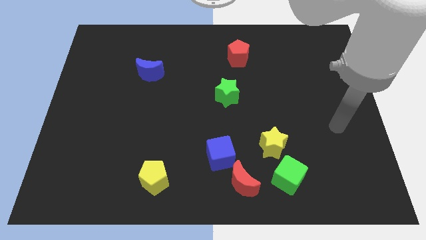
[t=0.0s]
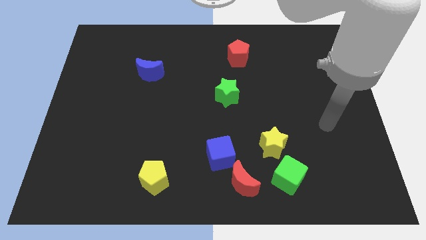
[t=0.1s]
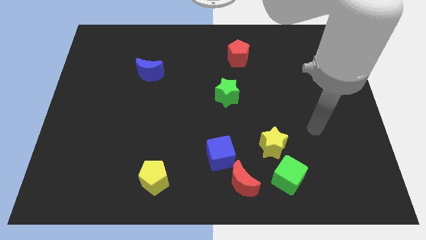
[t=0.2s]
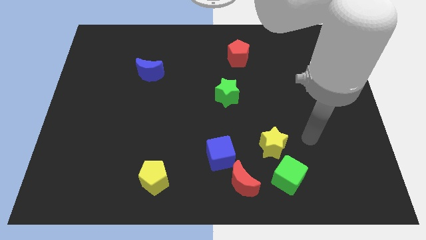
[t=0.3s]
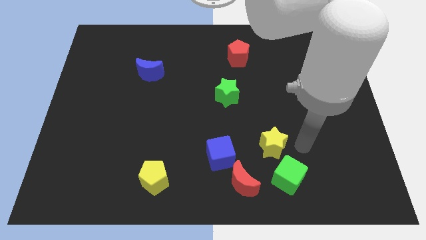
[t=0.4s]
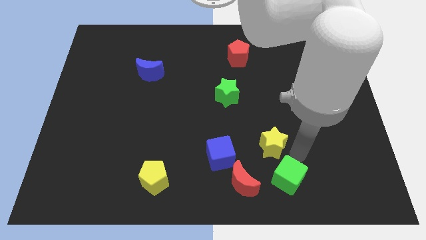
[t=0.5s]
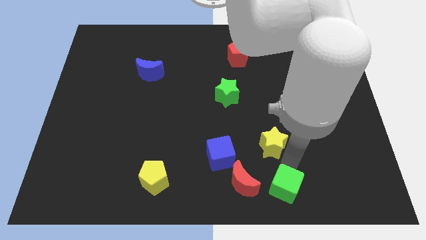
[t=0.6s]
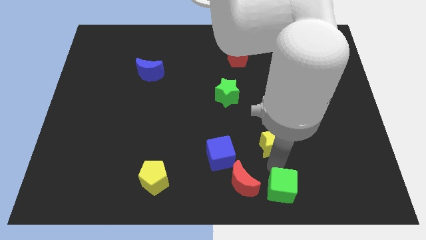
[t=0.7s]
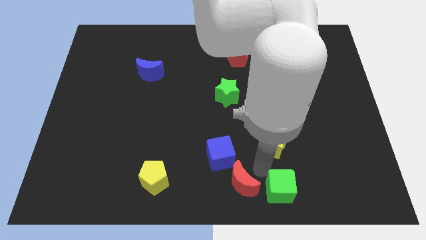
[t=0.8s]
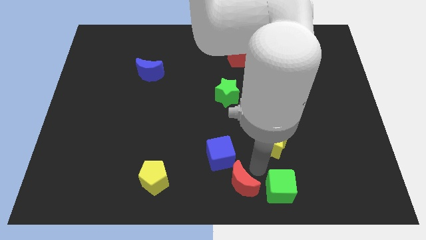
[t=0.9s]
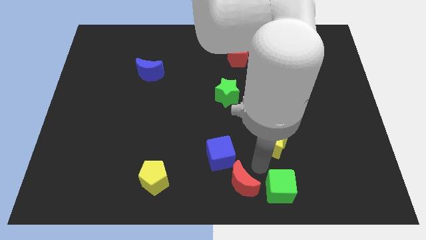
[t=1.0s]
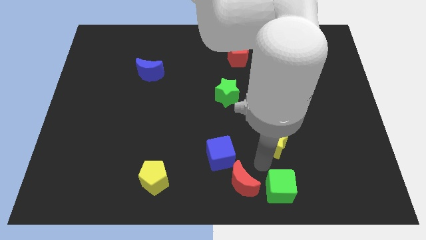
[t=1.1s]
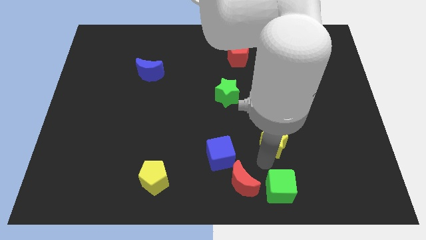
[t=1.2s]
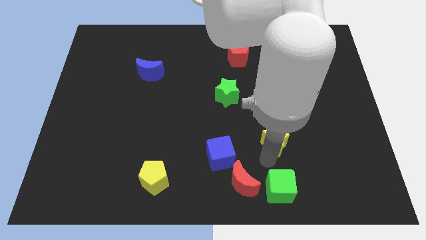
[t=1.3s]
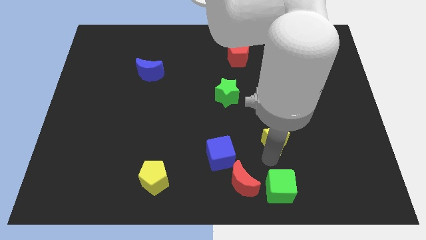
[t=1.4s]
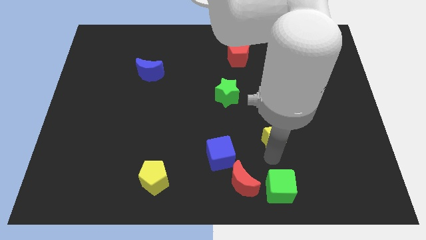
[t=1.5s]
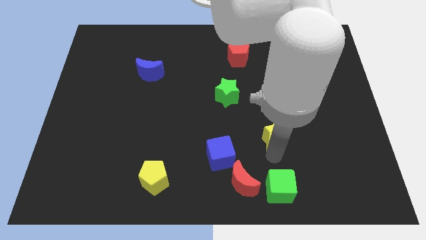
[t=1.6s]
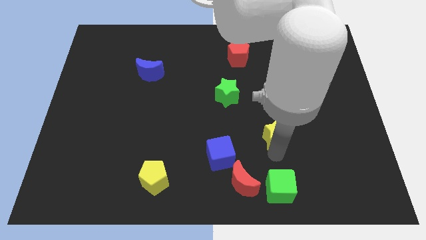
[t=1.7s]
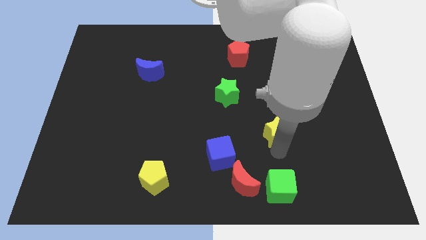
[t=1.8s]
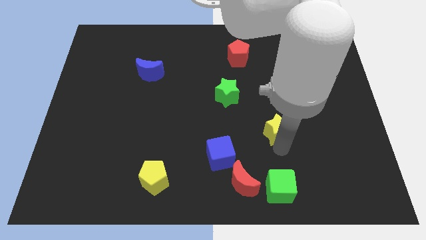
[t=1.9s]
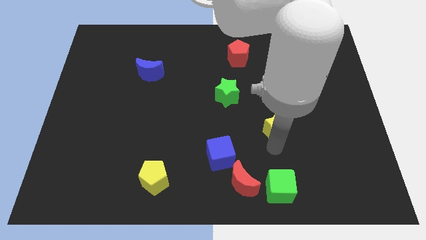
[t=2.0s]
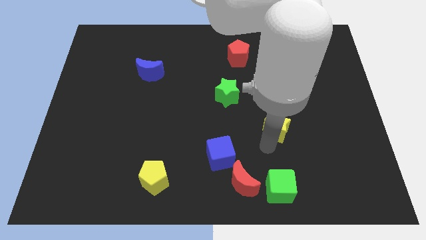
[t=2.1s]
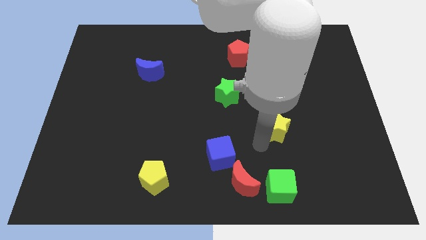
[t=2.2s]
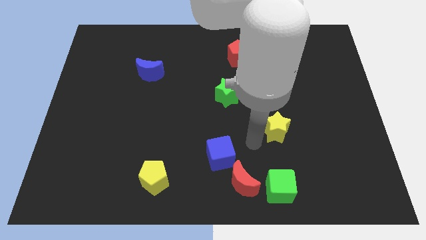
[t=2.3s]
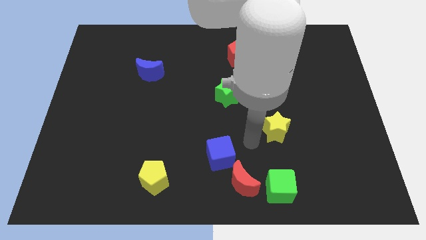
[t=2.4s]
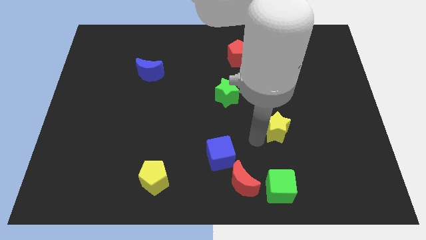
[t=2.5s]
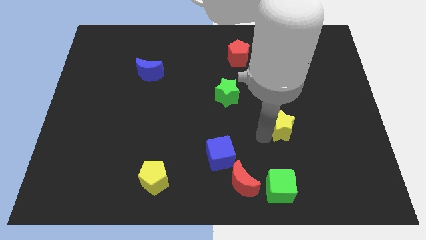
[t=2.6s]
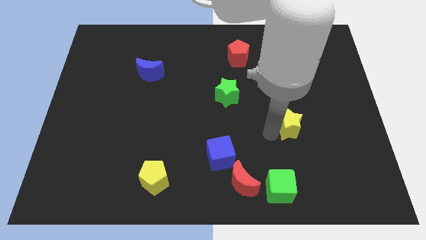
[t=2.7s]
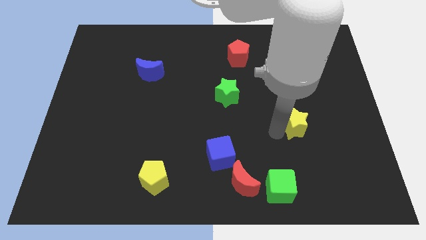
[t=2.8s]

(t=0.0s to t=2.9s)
move the yellow star a little bit upwards and right

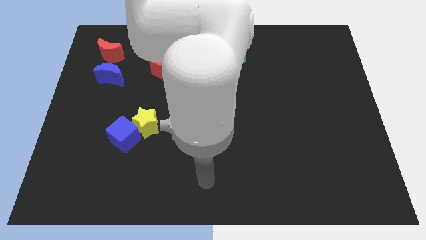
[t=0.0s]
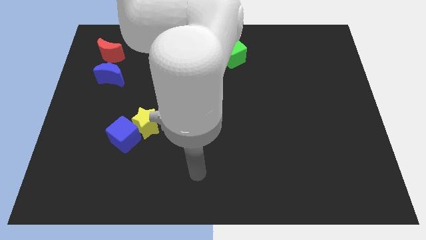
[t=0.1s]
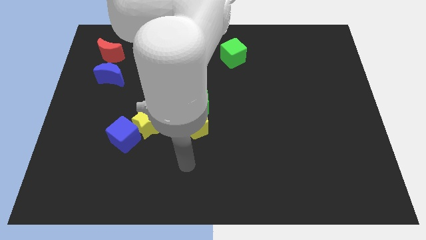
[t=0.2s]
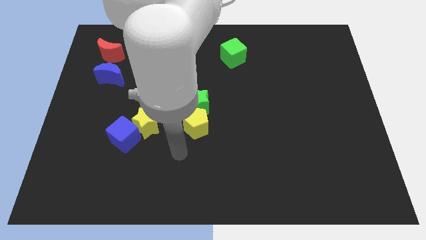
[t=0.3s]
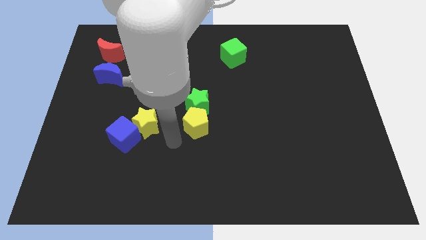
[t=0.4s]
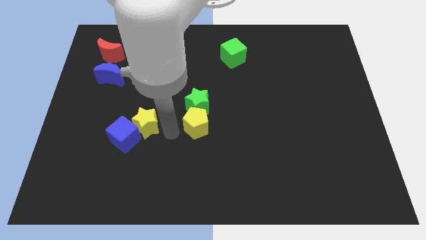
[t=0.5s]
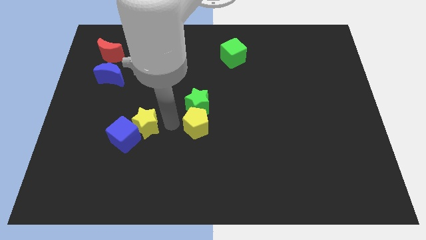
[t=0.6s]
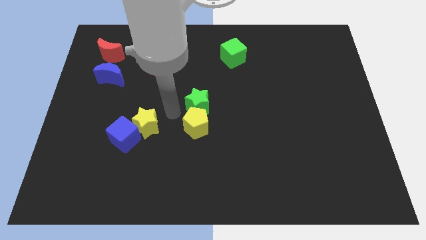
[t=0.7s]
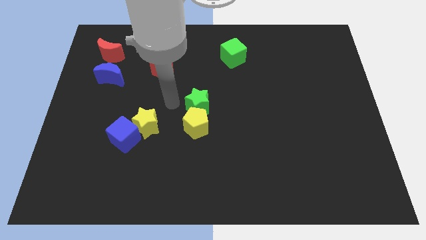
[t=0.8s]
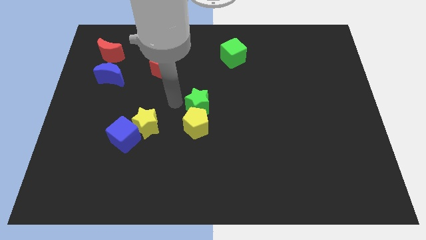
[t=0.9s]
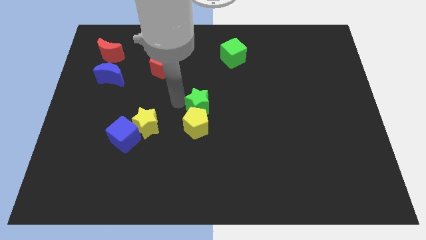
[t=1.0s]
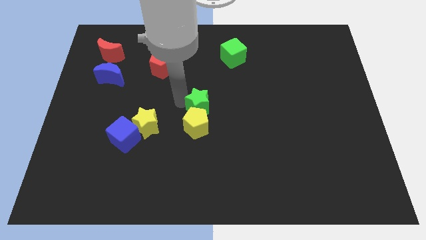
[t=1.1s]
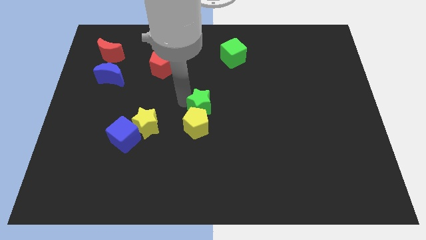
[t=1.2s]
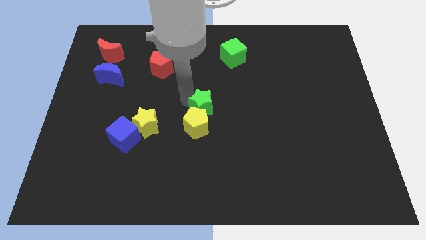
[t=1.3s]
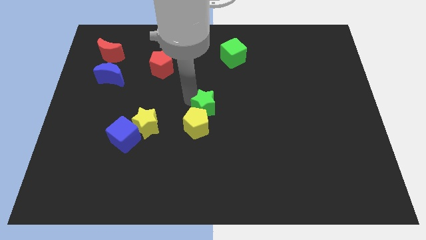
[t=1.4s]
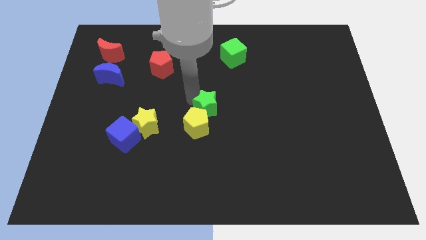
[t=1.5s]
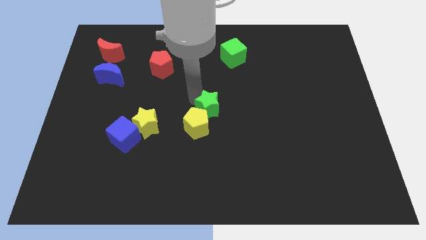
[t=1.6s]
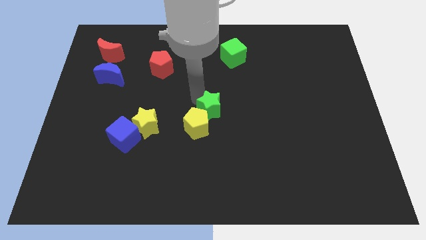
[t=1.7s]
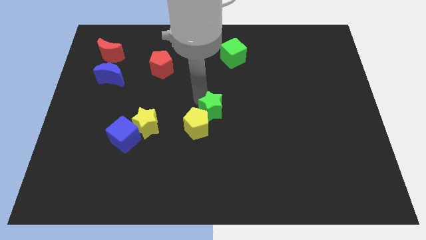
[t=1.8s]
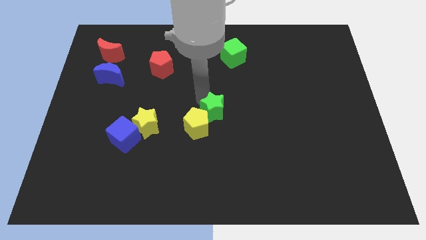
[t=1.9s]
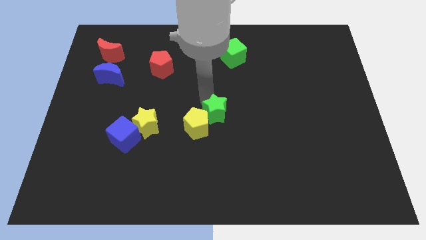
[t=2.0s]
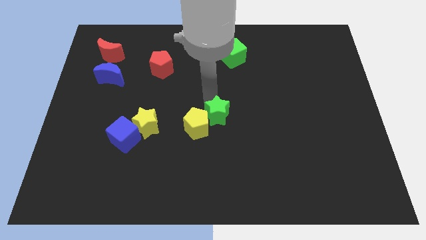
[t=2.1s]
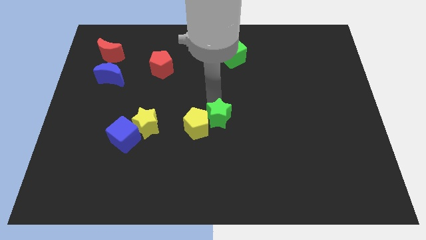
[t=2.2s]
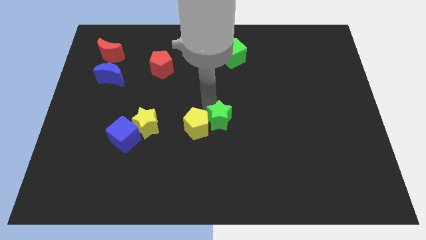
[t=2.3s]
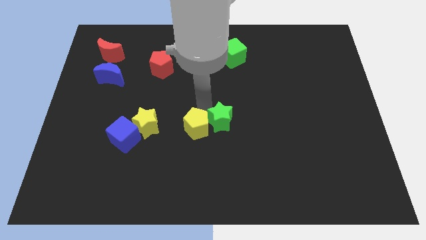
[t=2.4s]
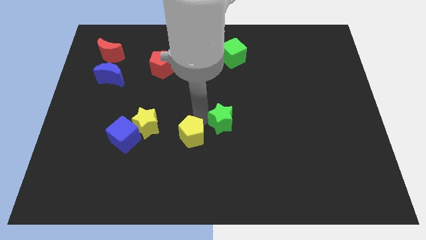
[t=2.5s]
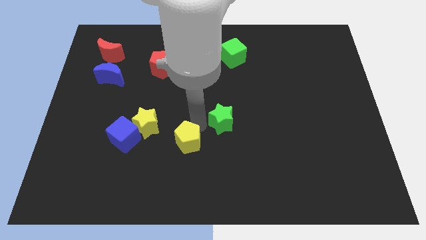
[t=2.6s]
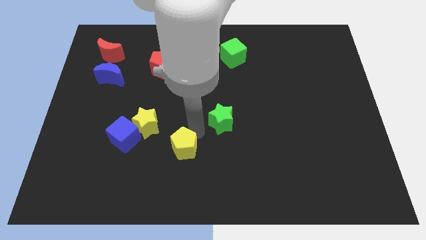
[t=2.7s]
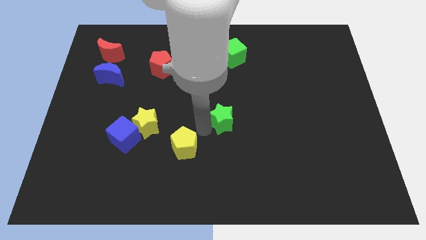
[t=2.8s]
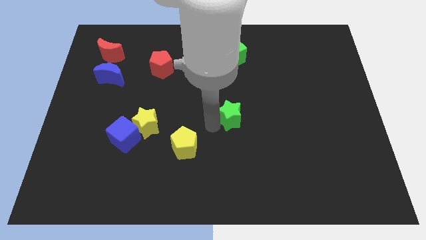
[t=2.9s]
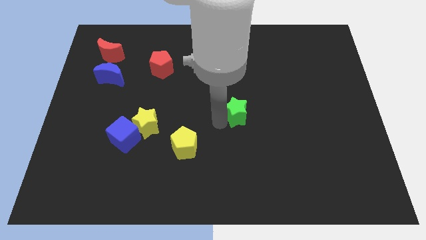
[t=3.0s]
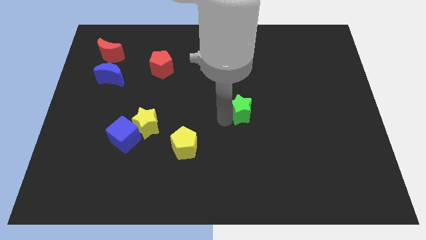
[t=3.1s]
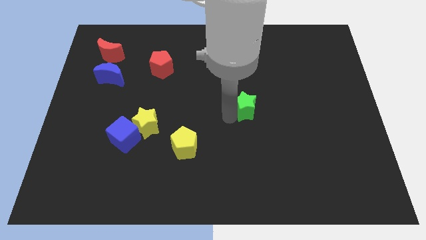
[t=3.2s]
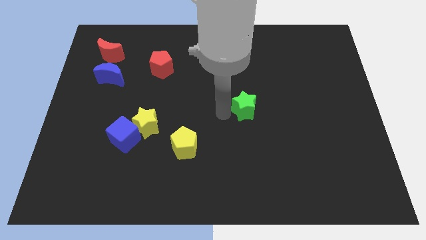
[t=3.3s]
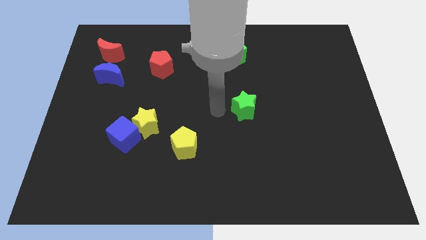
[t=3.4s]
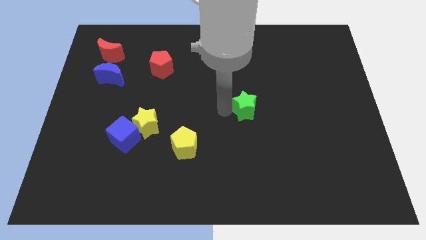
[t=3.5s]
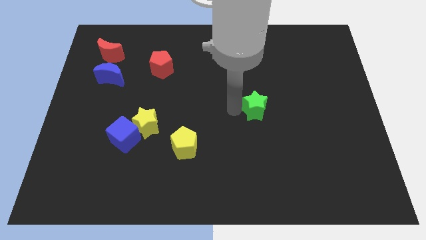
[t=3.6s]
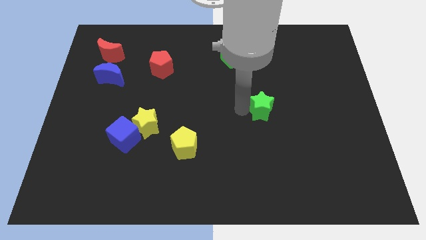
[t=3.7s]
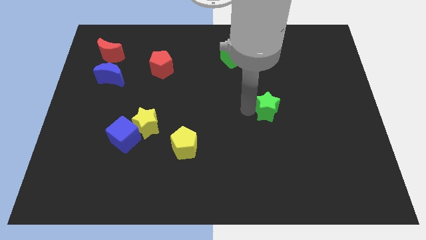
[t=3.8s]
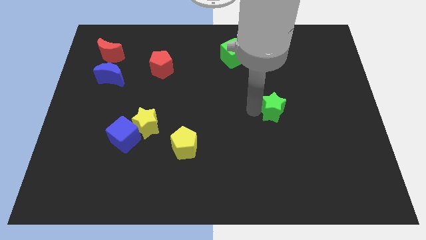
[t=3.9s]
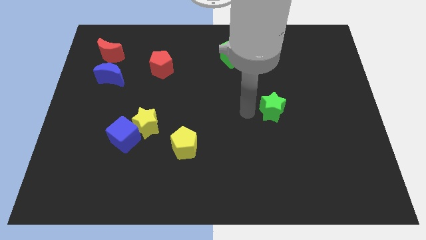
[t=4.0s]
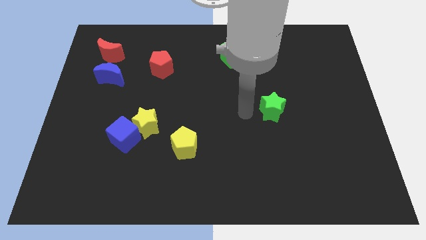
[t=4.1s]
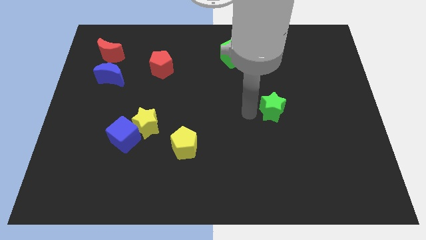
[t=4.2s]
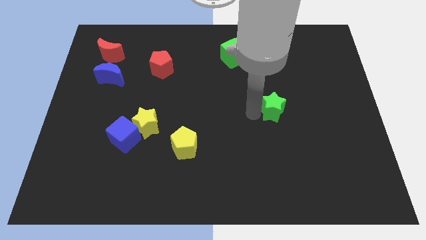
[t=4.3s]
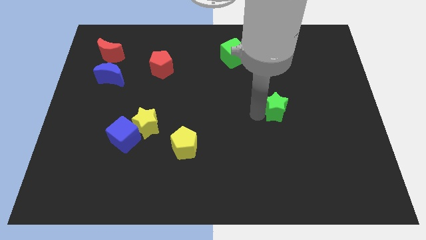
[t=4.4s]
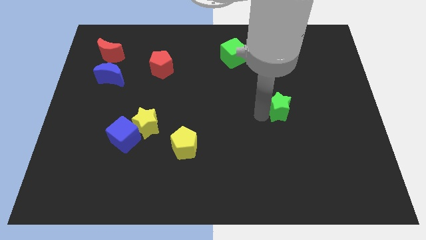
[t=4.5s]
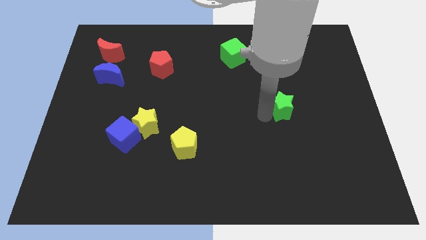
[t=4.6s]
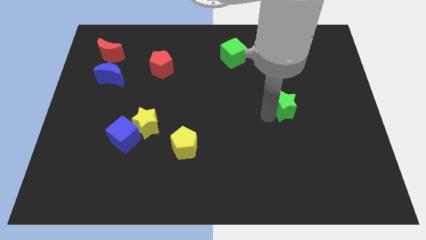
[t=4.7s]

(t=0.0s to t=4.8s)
move the green star right
